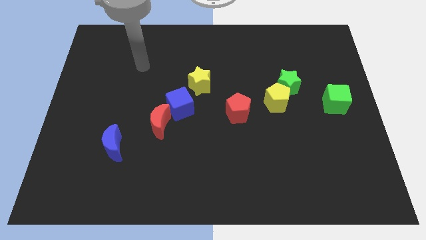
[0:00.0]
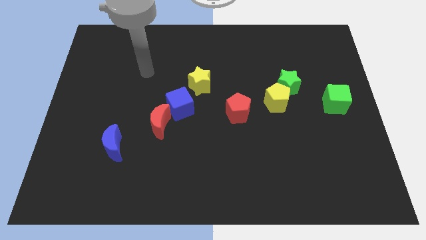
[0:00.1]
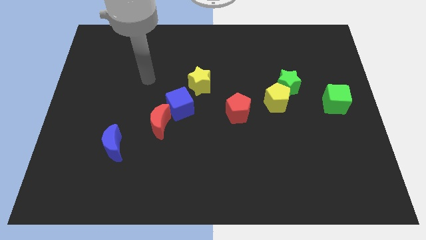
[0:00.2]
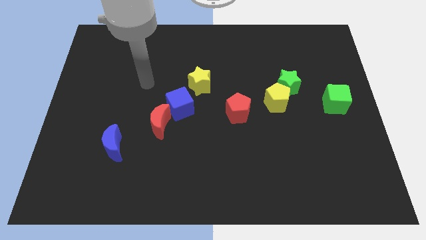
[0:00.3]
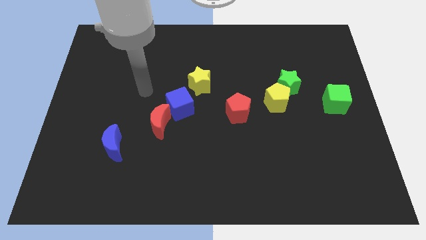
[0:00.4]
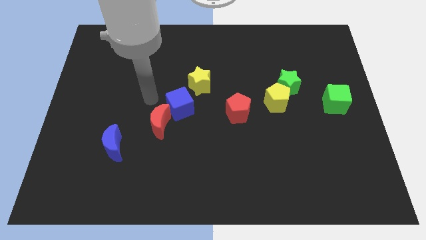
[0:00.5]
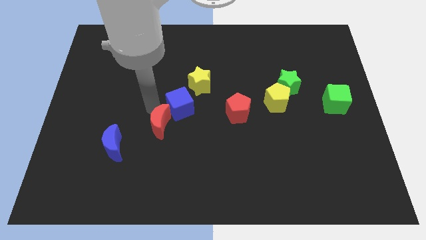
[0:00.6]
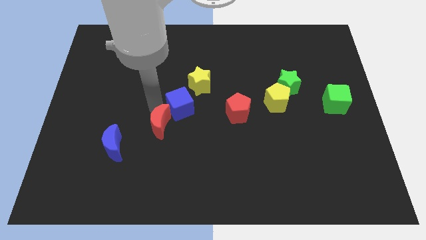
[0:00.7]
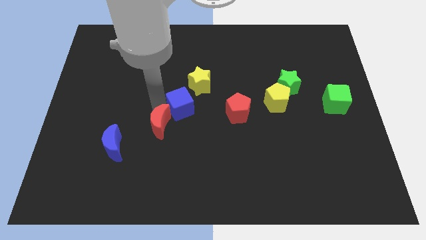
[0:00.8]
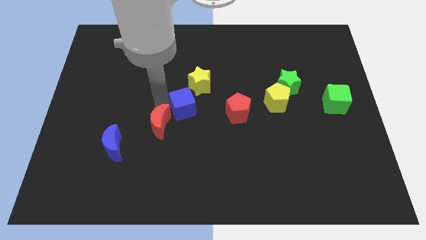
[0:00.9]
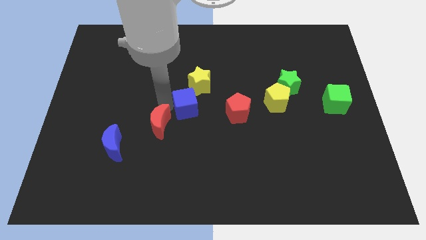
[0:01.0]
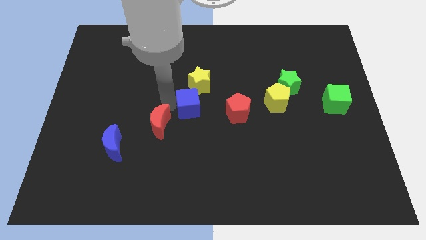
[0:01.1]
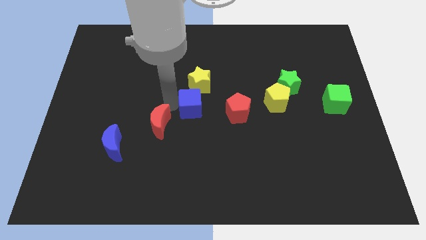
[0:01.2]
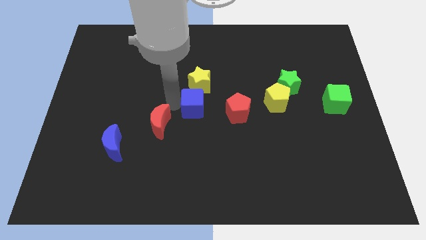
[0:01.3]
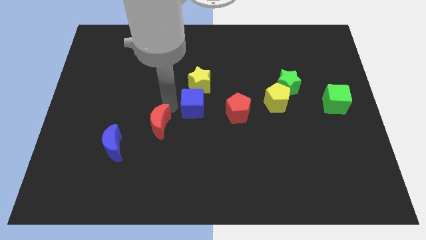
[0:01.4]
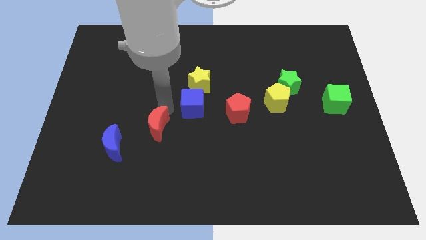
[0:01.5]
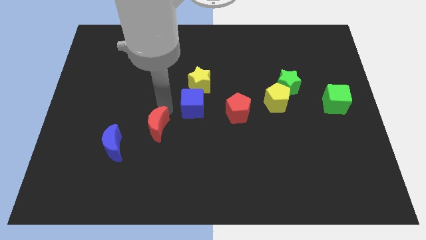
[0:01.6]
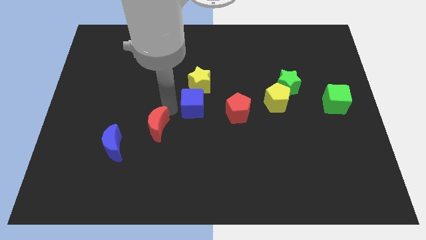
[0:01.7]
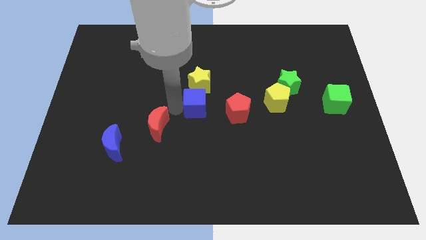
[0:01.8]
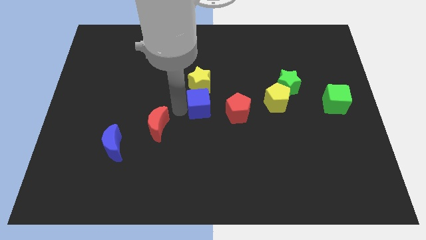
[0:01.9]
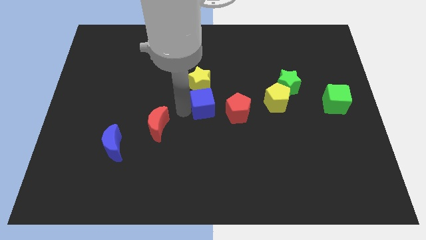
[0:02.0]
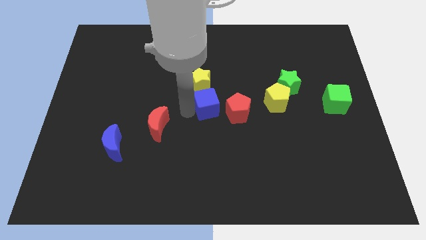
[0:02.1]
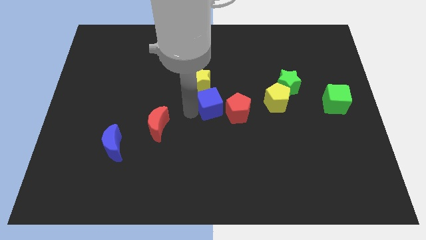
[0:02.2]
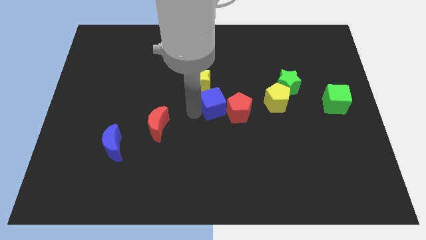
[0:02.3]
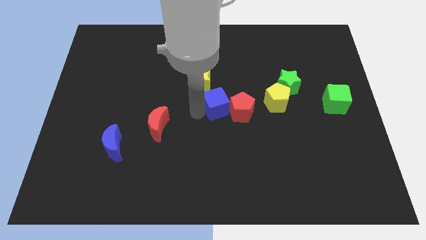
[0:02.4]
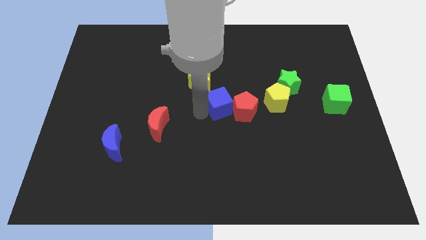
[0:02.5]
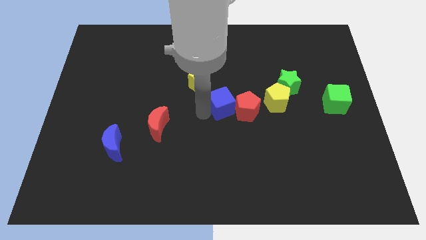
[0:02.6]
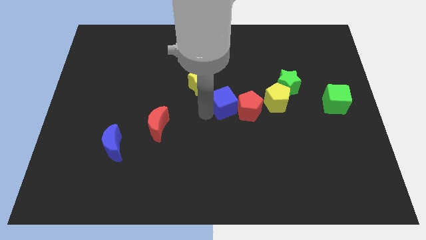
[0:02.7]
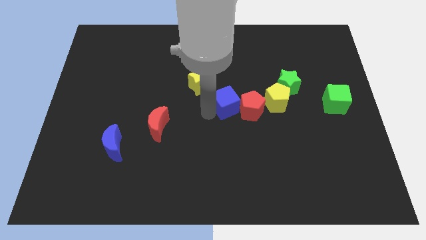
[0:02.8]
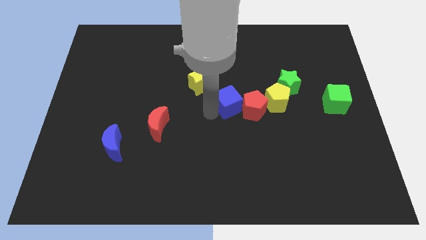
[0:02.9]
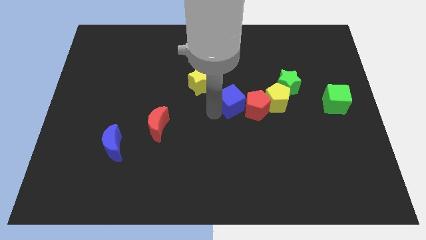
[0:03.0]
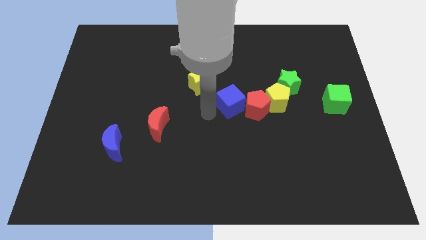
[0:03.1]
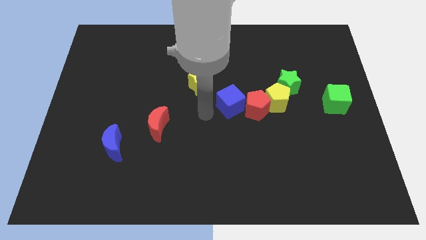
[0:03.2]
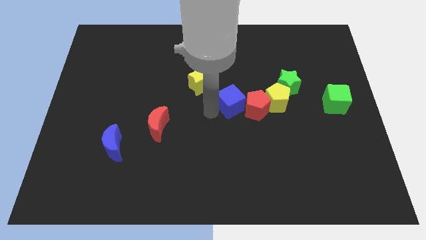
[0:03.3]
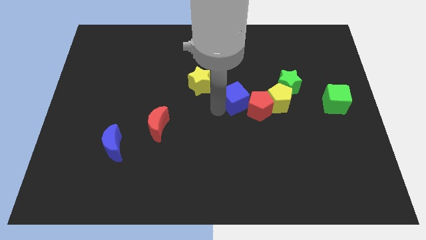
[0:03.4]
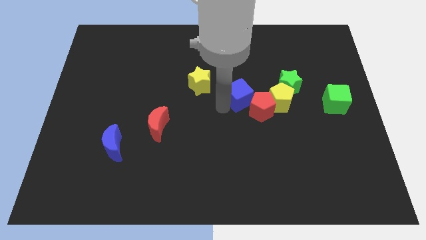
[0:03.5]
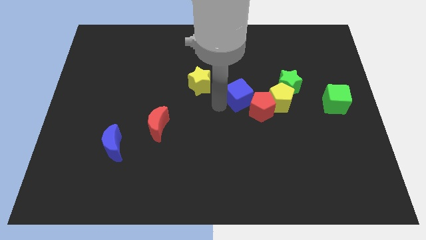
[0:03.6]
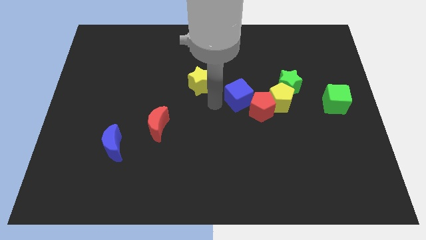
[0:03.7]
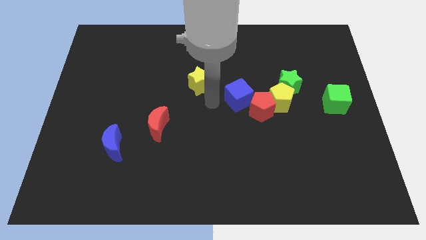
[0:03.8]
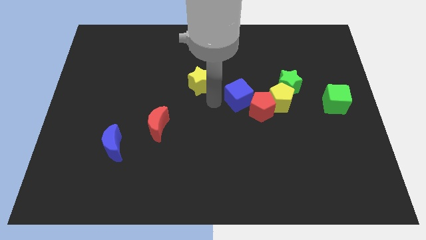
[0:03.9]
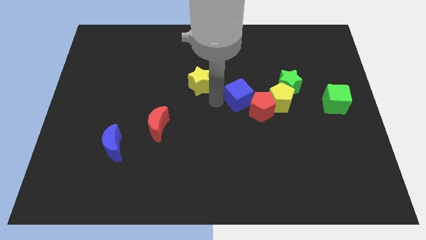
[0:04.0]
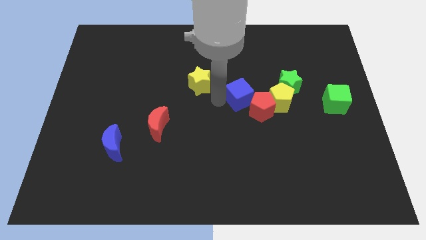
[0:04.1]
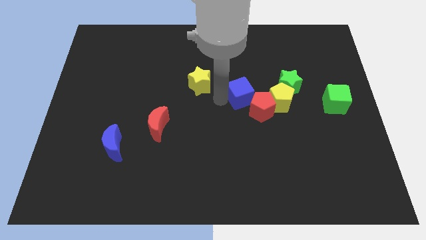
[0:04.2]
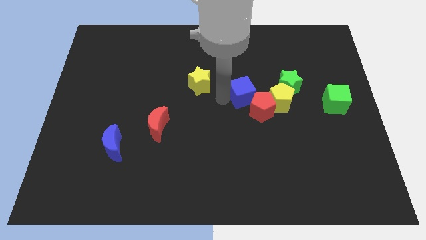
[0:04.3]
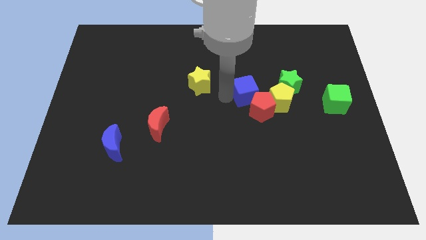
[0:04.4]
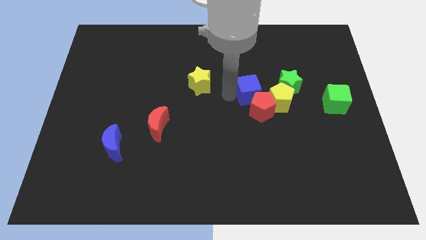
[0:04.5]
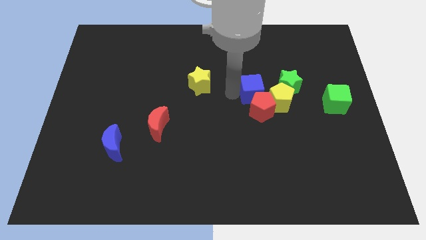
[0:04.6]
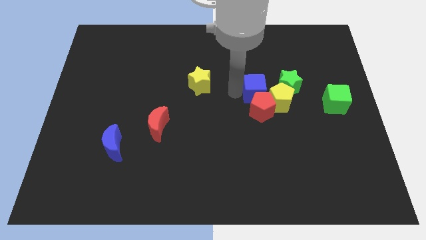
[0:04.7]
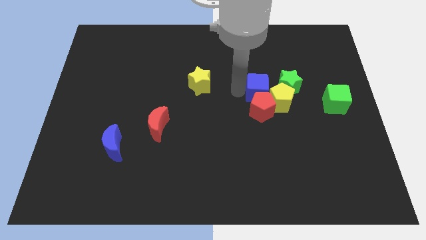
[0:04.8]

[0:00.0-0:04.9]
slide the blue cube to the yellow pentagon

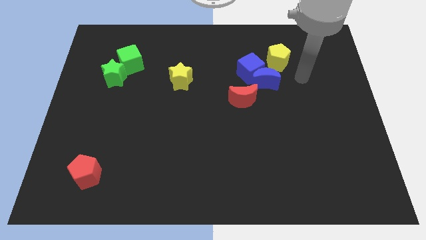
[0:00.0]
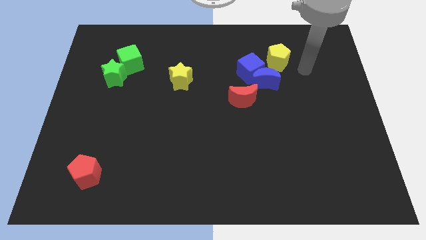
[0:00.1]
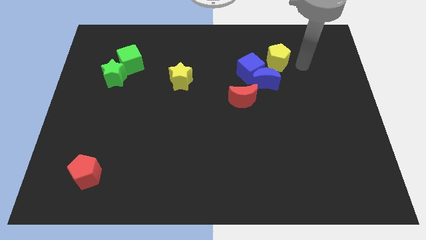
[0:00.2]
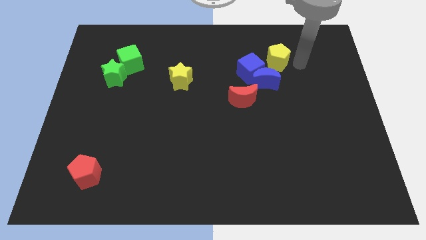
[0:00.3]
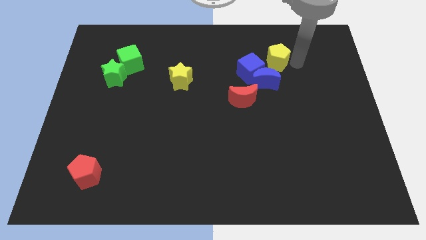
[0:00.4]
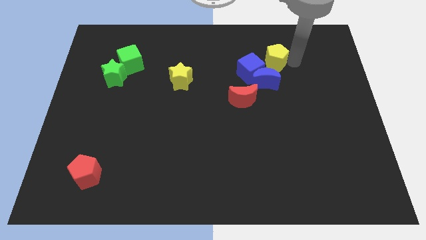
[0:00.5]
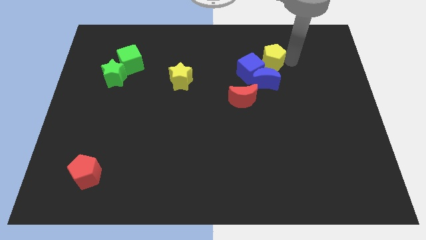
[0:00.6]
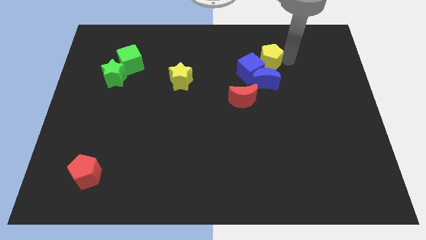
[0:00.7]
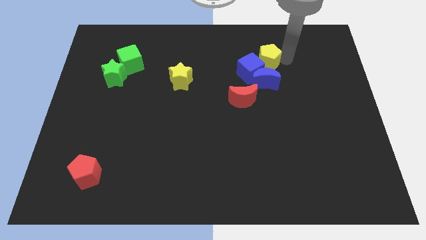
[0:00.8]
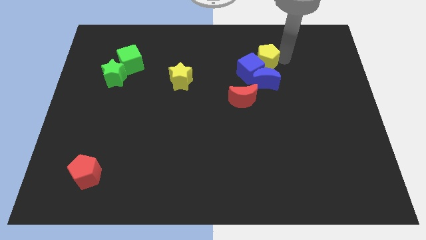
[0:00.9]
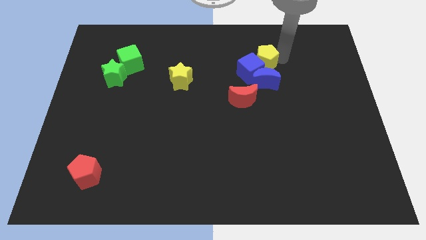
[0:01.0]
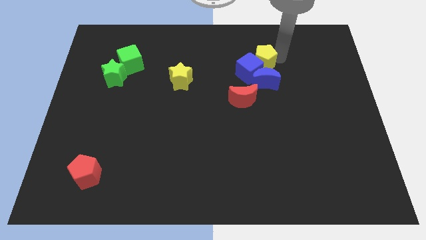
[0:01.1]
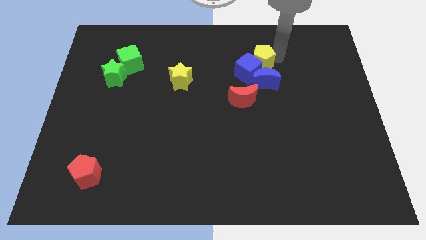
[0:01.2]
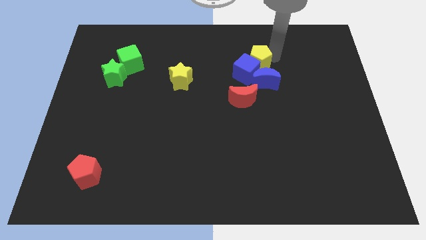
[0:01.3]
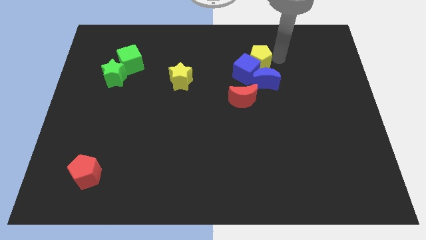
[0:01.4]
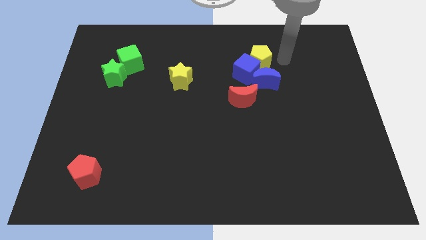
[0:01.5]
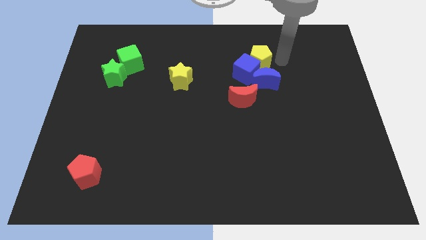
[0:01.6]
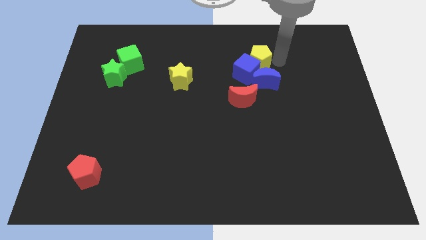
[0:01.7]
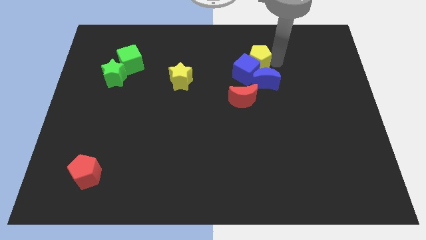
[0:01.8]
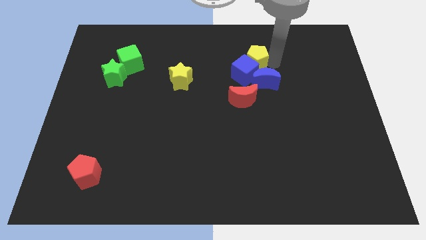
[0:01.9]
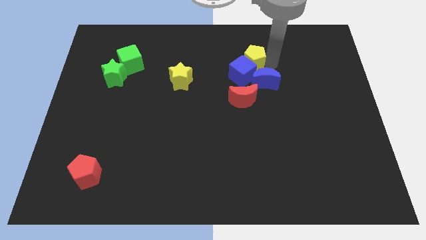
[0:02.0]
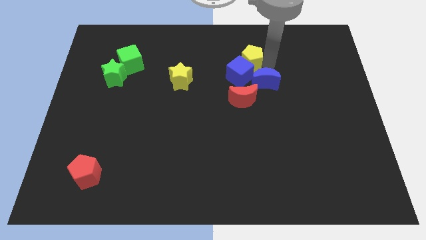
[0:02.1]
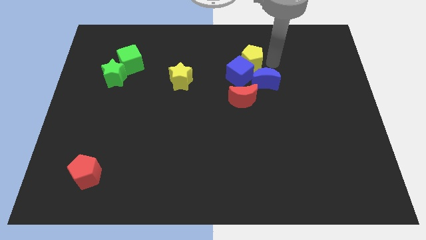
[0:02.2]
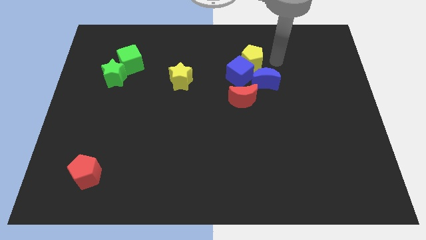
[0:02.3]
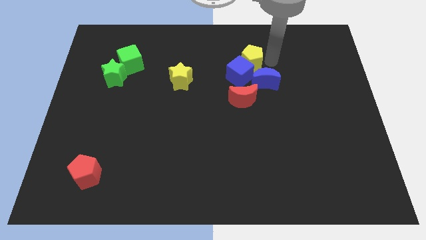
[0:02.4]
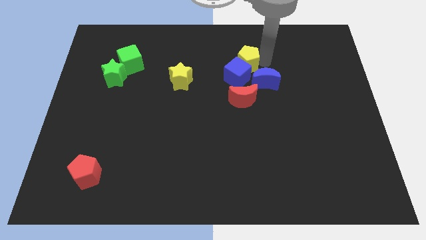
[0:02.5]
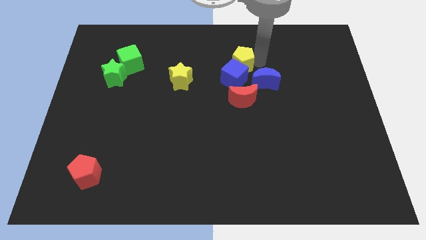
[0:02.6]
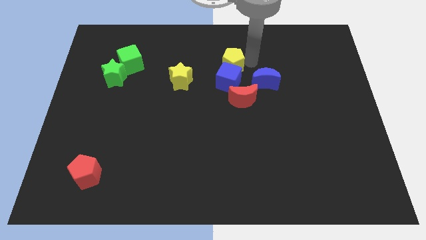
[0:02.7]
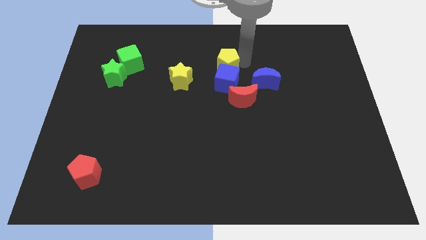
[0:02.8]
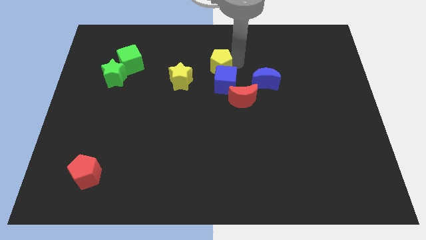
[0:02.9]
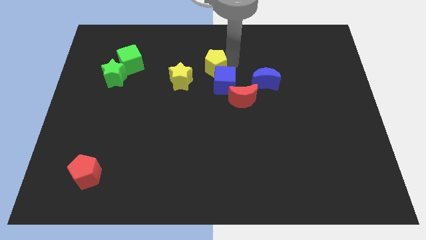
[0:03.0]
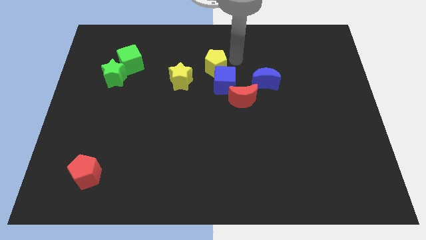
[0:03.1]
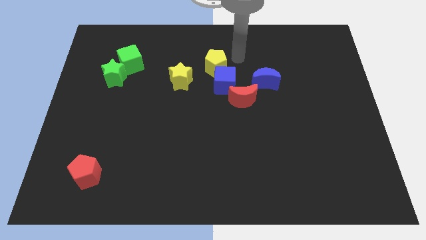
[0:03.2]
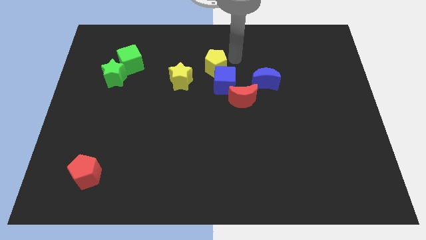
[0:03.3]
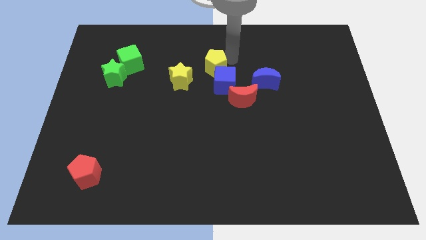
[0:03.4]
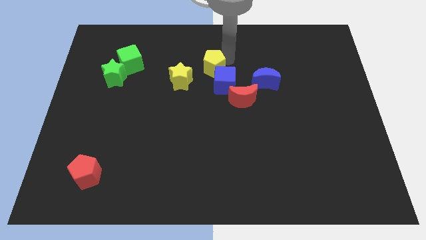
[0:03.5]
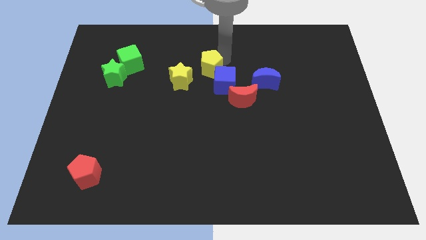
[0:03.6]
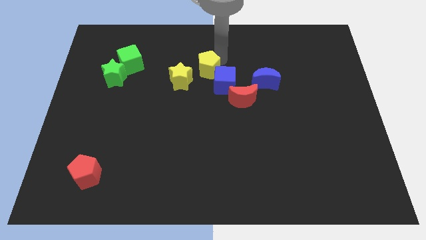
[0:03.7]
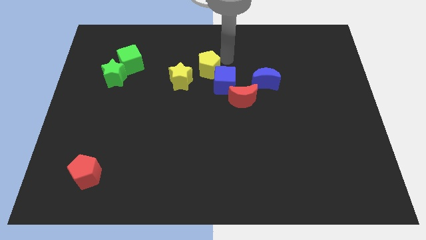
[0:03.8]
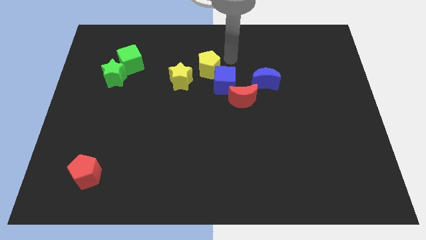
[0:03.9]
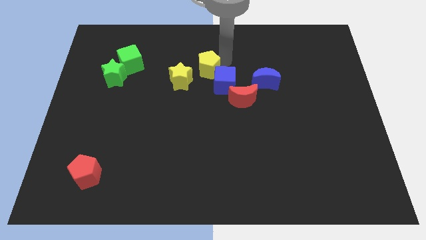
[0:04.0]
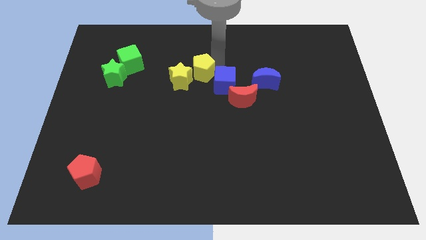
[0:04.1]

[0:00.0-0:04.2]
put the yellow pentagon to the yellow star
